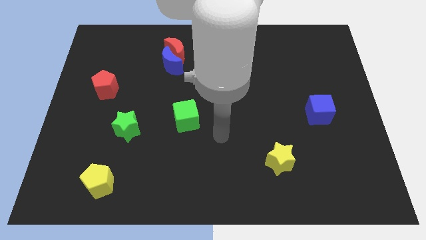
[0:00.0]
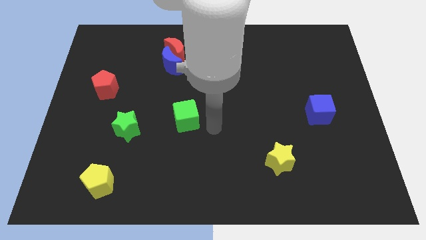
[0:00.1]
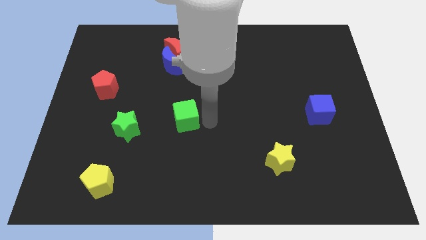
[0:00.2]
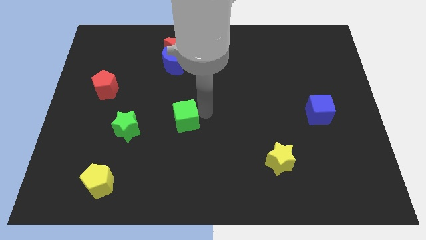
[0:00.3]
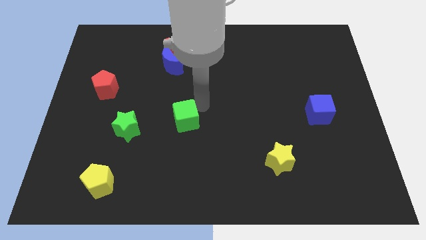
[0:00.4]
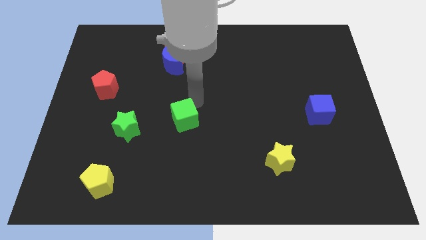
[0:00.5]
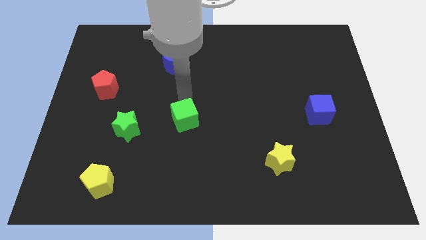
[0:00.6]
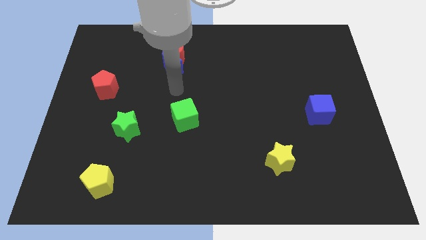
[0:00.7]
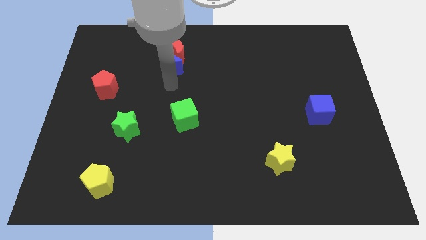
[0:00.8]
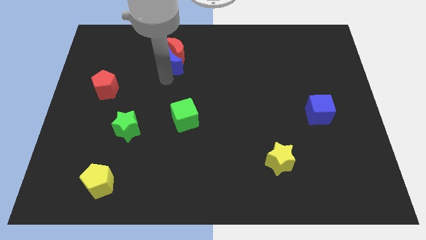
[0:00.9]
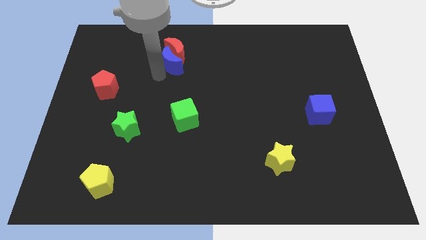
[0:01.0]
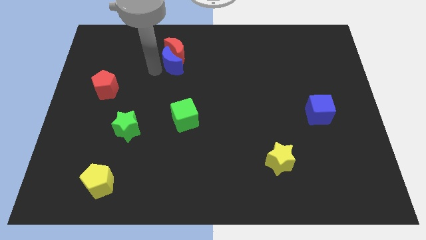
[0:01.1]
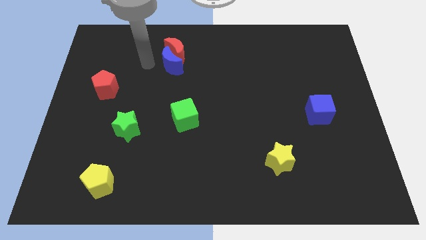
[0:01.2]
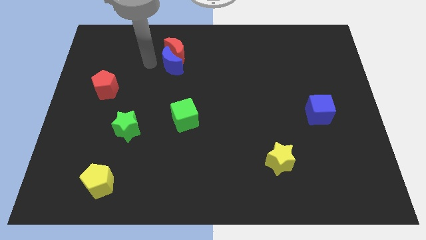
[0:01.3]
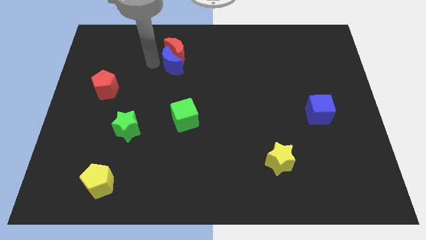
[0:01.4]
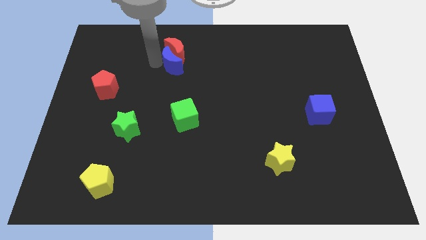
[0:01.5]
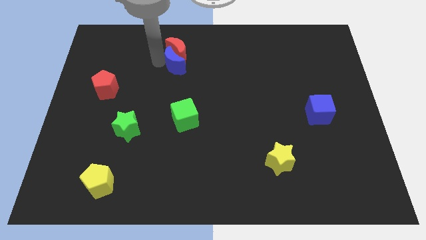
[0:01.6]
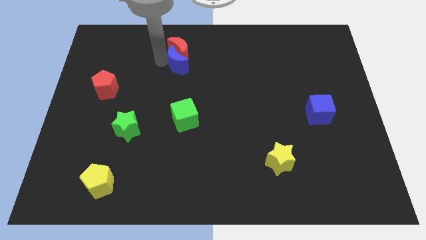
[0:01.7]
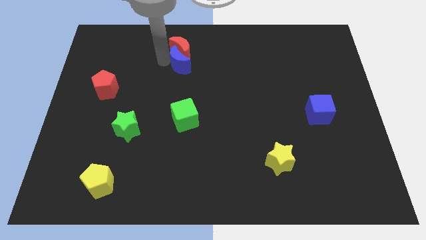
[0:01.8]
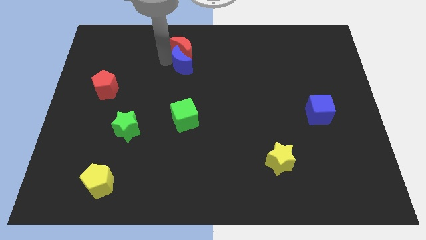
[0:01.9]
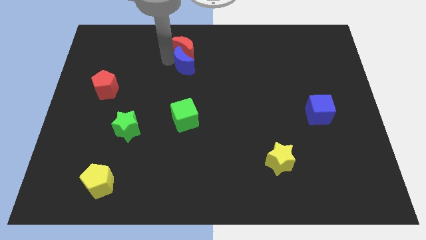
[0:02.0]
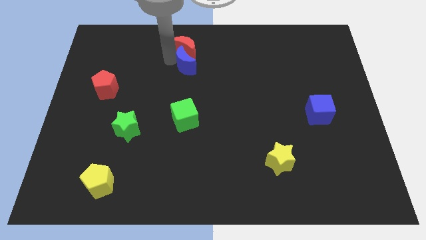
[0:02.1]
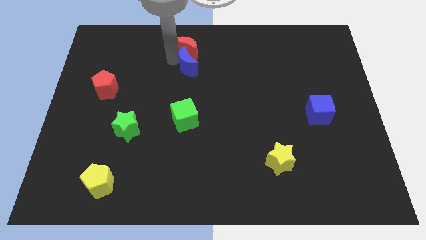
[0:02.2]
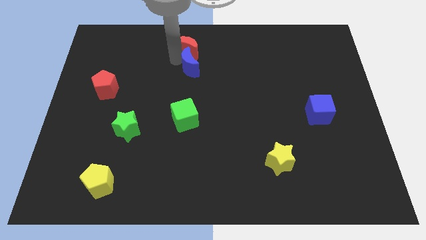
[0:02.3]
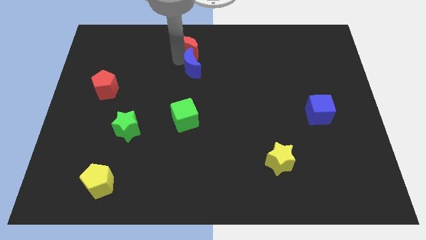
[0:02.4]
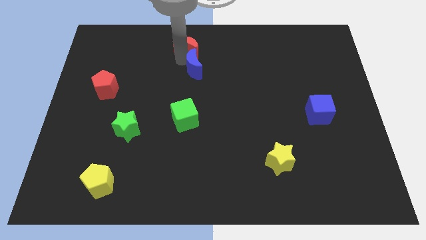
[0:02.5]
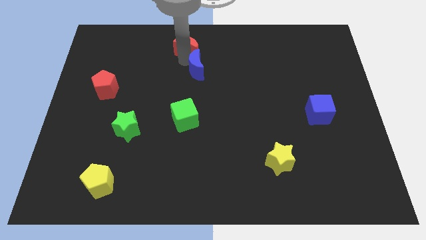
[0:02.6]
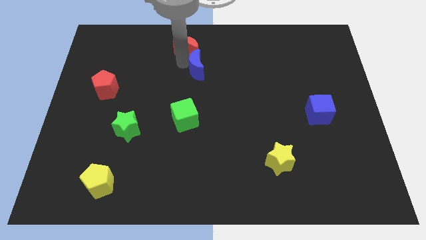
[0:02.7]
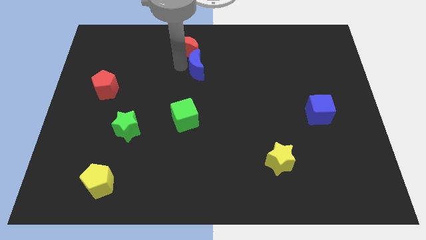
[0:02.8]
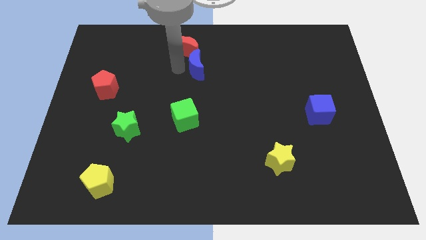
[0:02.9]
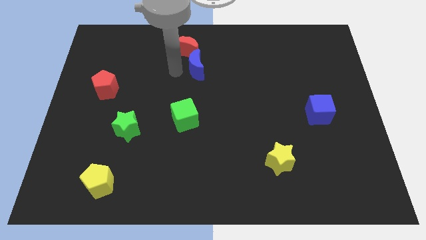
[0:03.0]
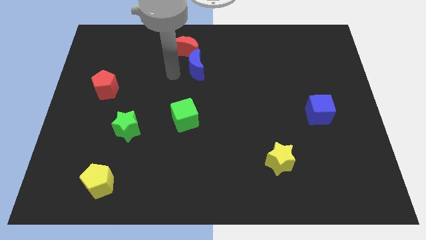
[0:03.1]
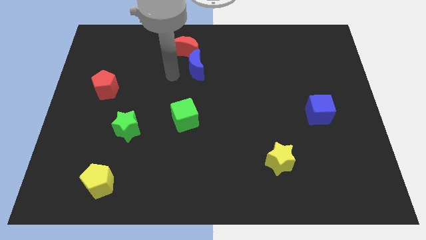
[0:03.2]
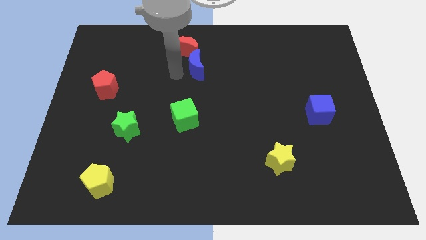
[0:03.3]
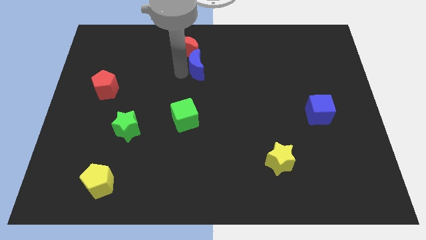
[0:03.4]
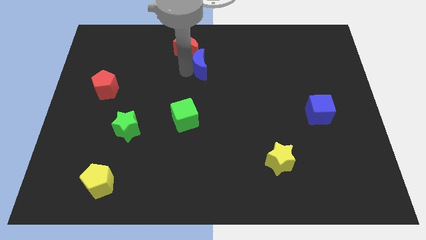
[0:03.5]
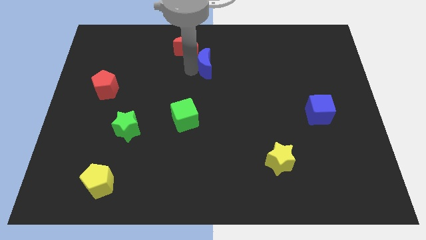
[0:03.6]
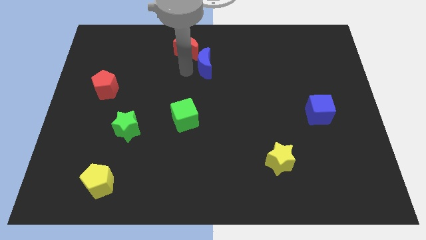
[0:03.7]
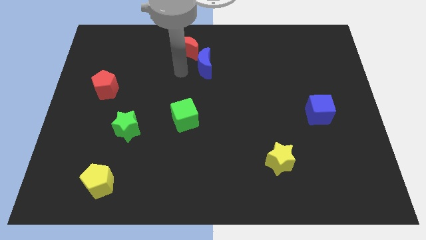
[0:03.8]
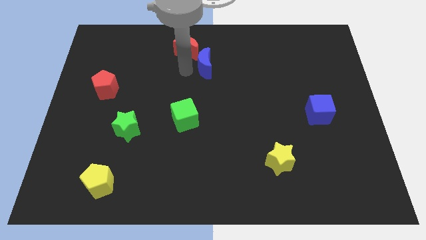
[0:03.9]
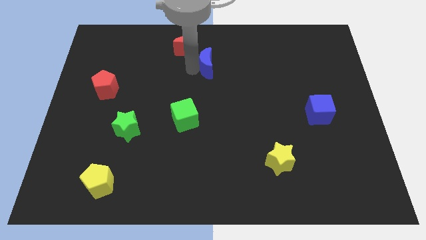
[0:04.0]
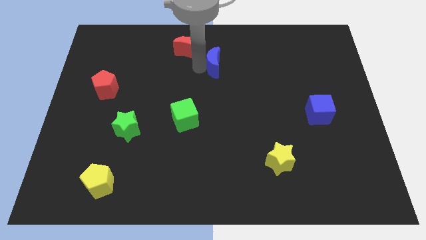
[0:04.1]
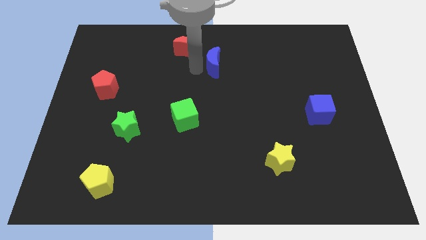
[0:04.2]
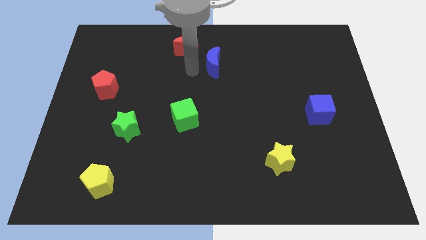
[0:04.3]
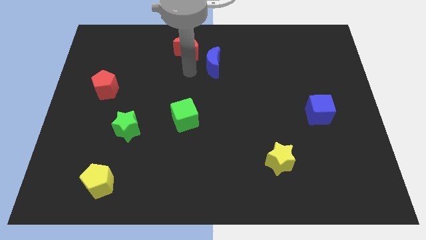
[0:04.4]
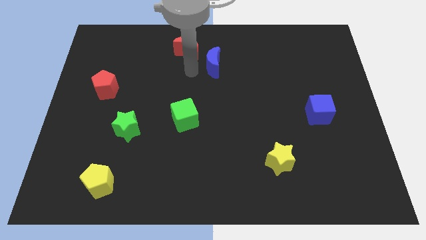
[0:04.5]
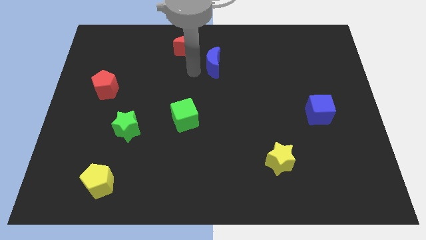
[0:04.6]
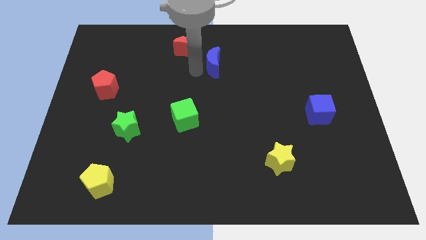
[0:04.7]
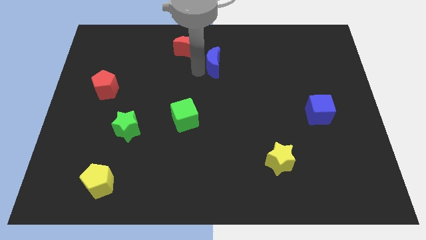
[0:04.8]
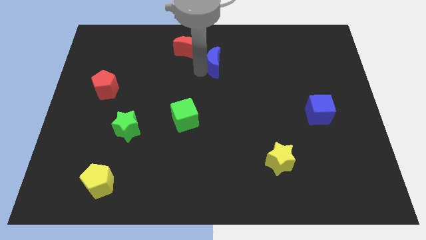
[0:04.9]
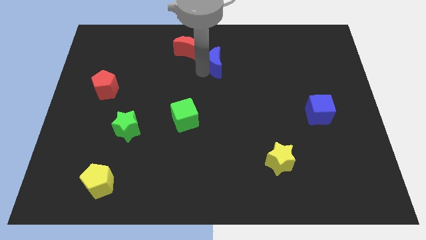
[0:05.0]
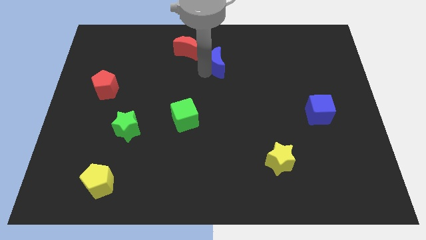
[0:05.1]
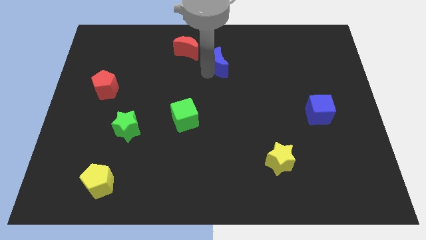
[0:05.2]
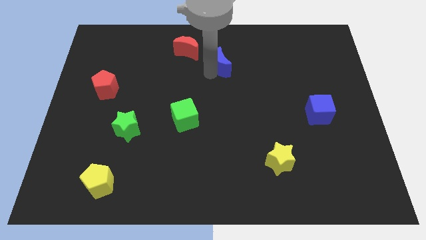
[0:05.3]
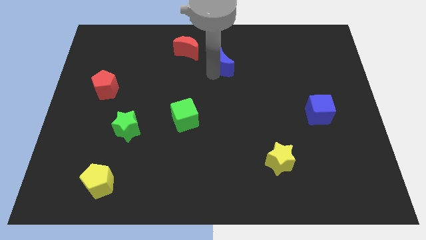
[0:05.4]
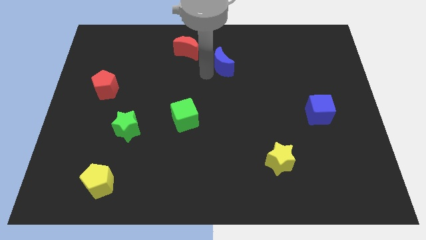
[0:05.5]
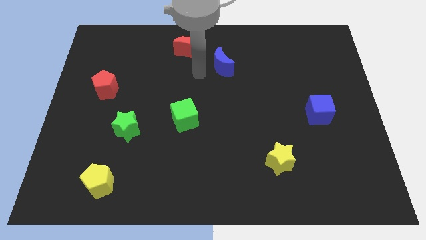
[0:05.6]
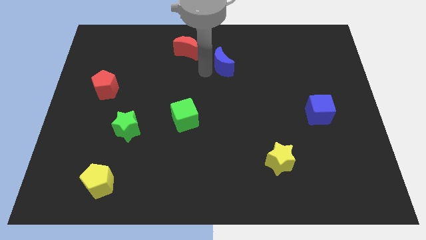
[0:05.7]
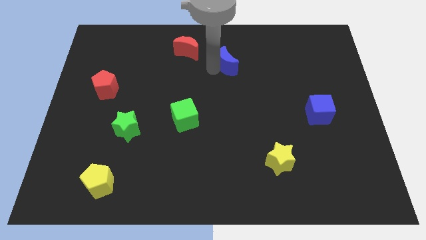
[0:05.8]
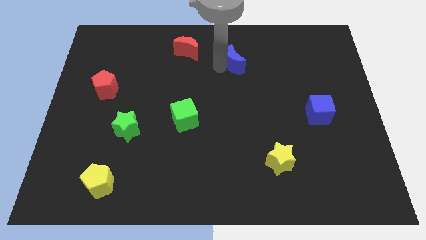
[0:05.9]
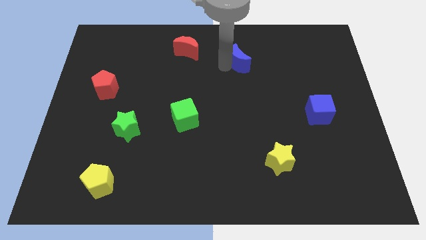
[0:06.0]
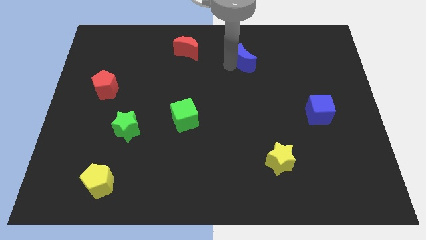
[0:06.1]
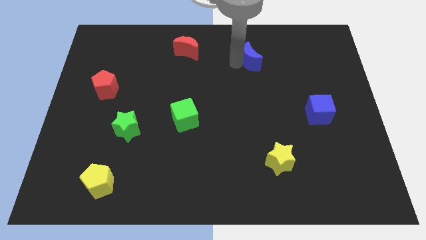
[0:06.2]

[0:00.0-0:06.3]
slide the blue moon right

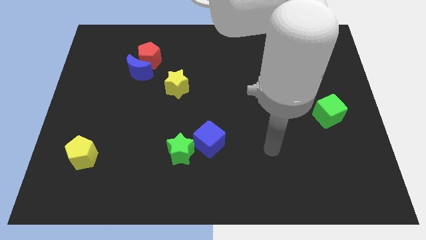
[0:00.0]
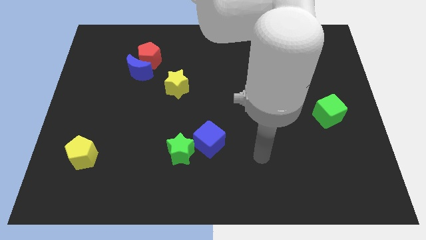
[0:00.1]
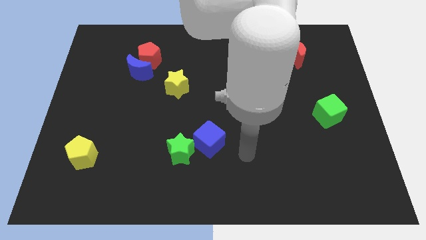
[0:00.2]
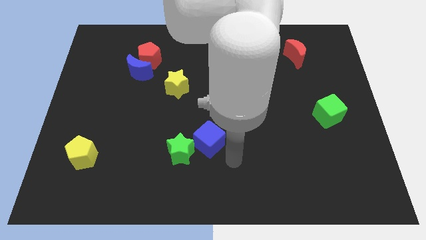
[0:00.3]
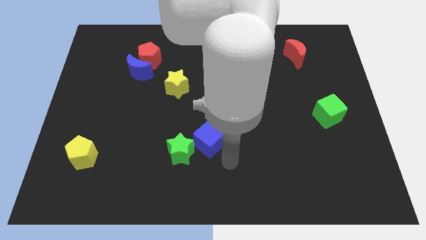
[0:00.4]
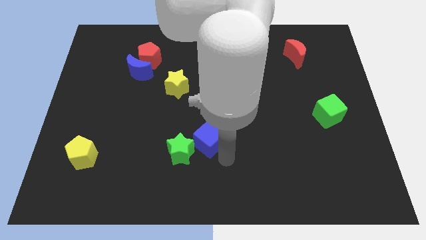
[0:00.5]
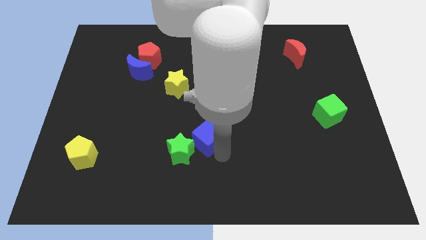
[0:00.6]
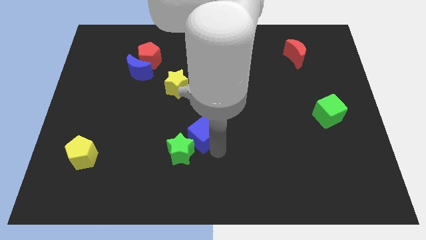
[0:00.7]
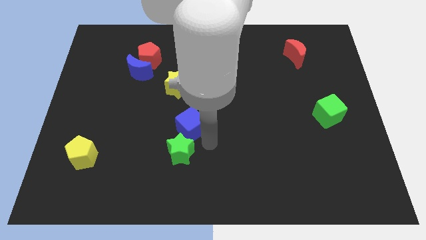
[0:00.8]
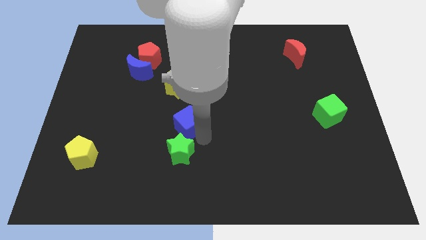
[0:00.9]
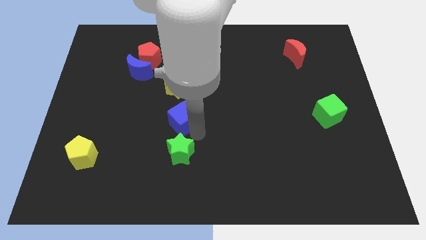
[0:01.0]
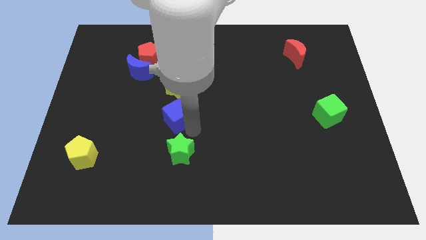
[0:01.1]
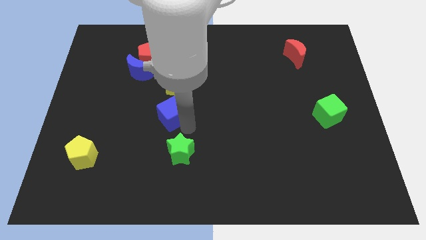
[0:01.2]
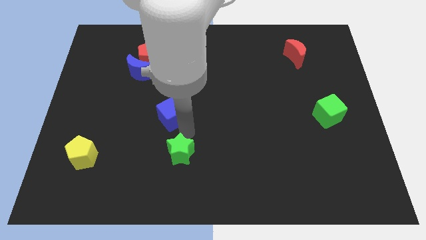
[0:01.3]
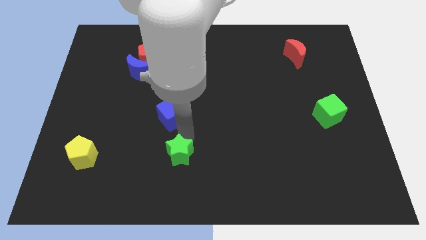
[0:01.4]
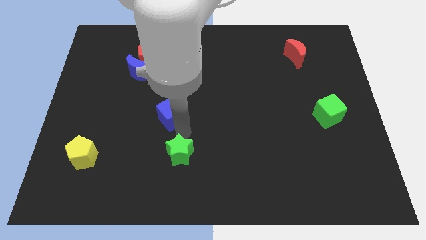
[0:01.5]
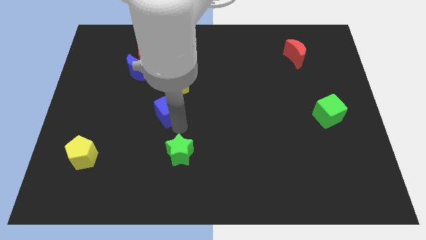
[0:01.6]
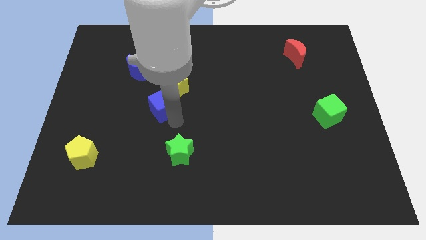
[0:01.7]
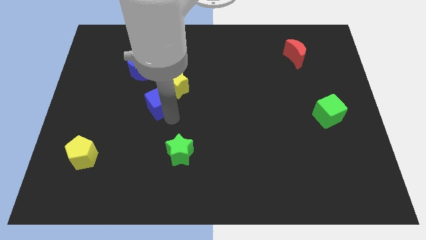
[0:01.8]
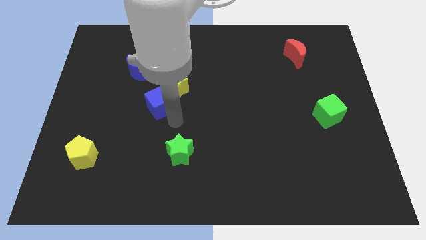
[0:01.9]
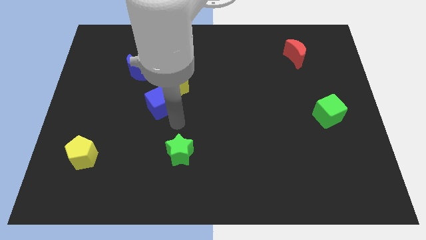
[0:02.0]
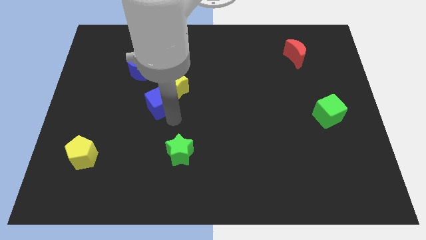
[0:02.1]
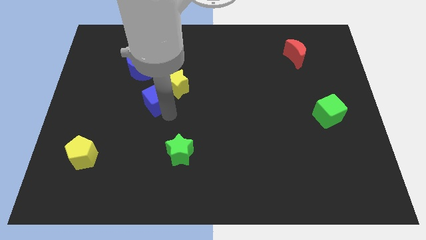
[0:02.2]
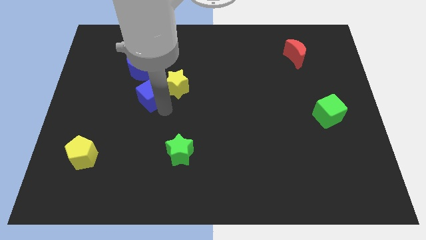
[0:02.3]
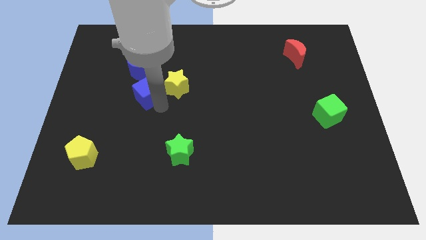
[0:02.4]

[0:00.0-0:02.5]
move the blue cube up and left
